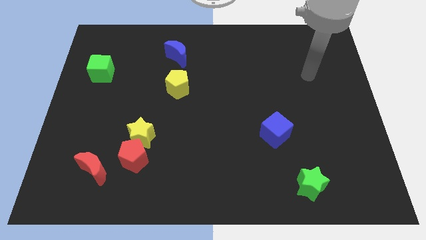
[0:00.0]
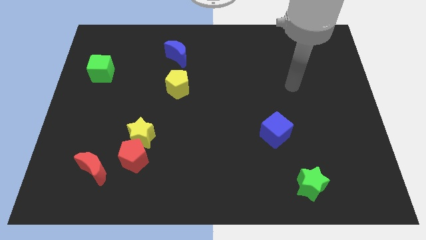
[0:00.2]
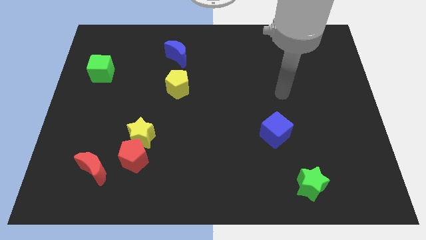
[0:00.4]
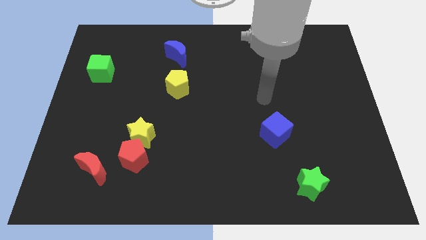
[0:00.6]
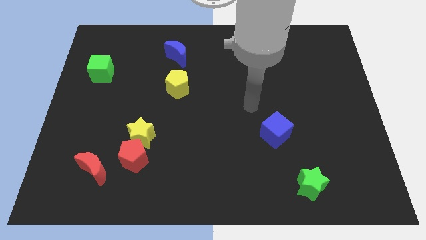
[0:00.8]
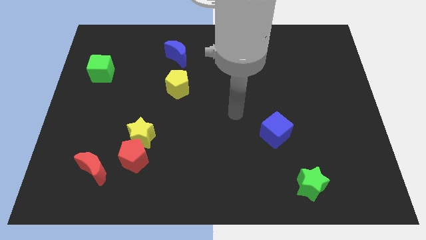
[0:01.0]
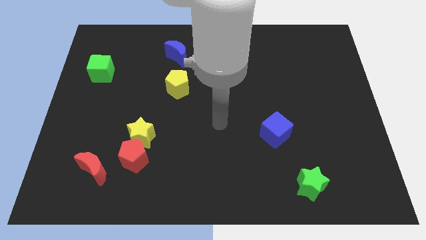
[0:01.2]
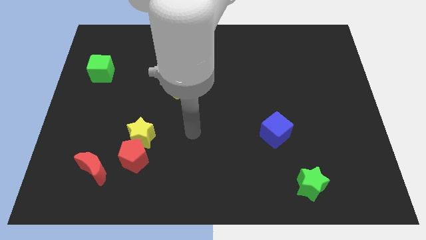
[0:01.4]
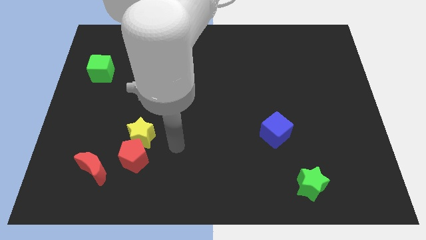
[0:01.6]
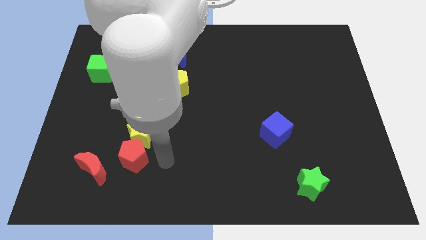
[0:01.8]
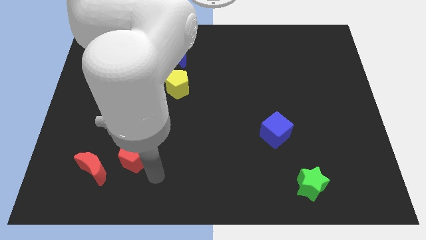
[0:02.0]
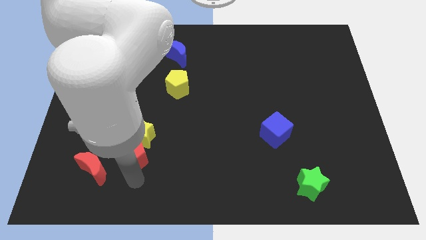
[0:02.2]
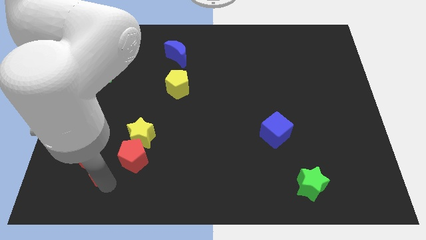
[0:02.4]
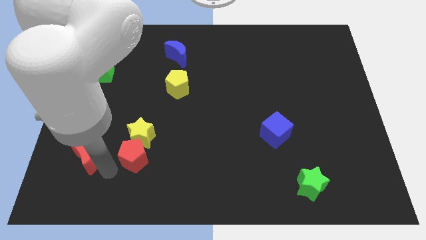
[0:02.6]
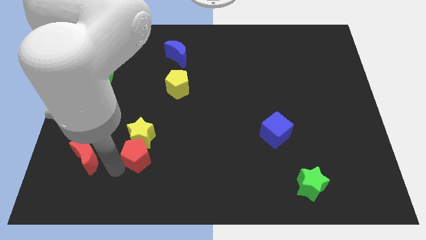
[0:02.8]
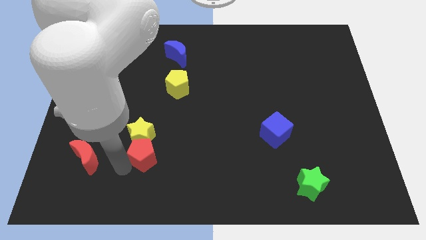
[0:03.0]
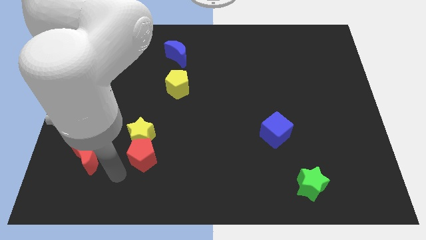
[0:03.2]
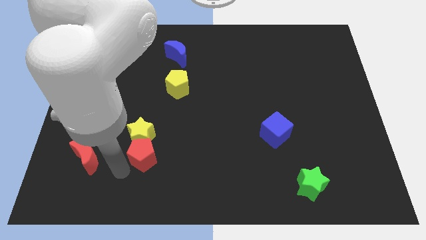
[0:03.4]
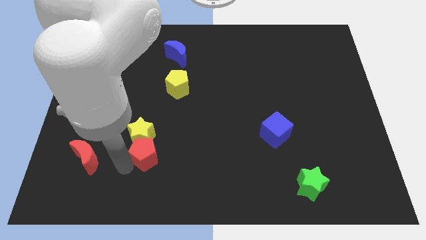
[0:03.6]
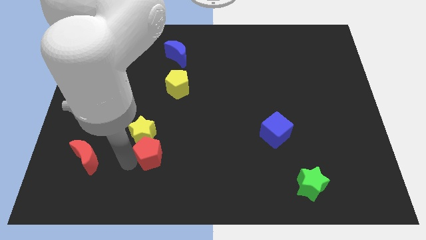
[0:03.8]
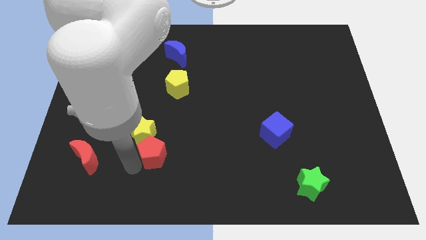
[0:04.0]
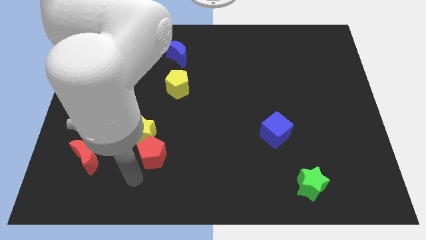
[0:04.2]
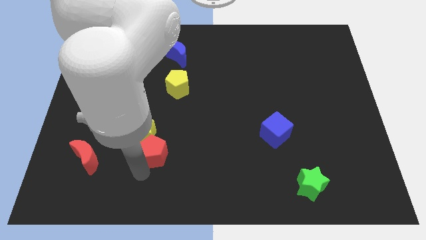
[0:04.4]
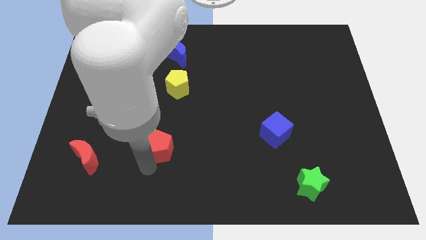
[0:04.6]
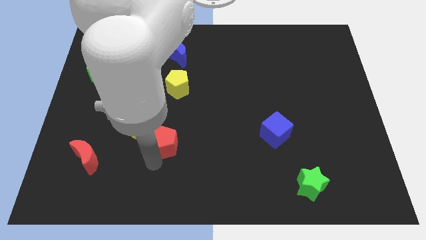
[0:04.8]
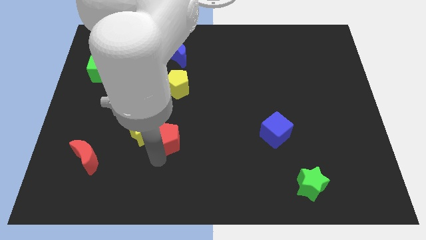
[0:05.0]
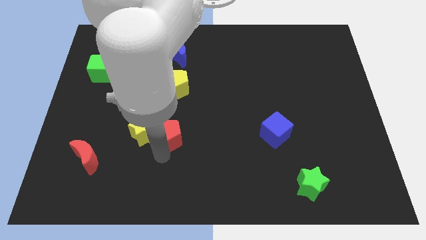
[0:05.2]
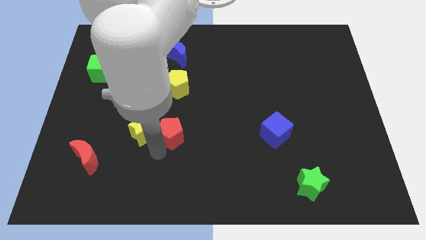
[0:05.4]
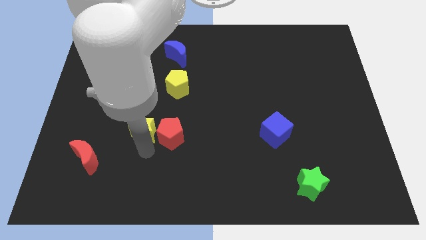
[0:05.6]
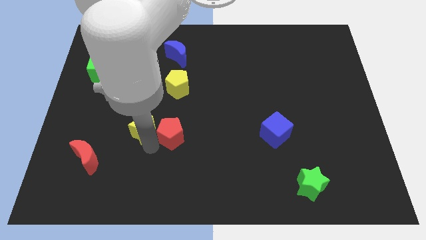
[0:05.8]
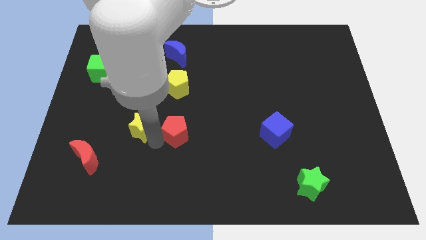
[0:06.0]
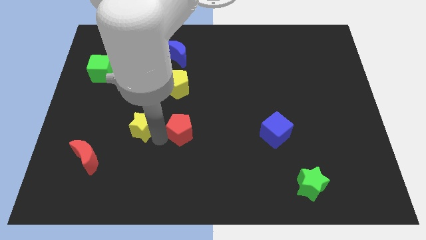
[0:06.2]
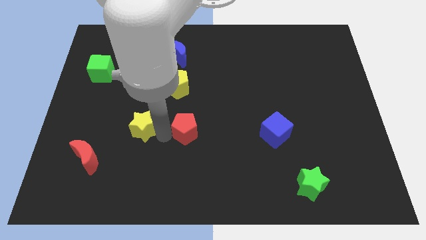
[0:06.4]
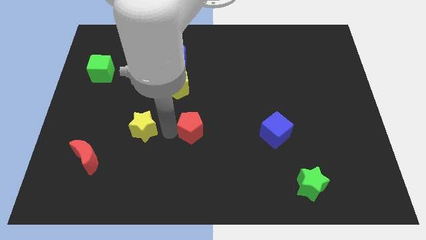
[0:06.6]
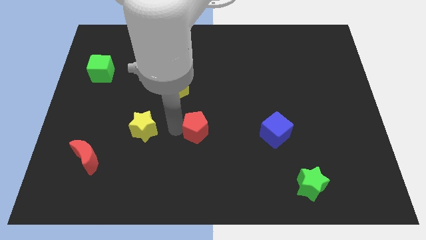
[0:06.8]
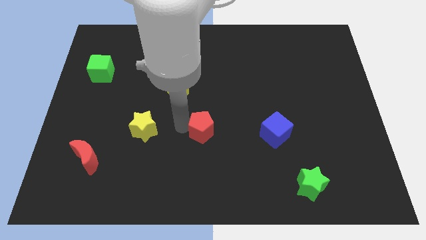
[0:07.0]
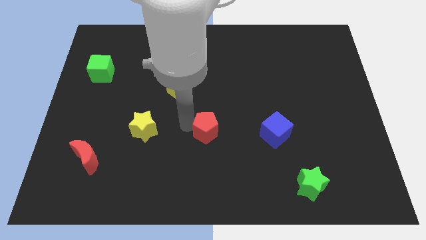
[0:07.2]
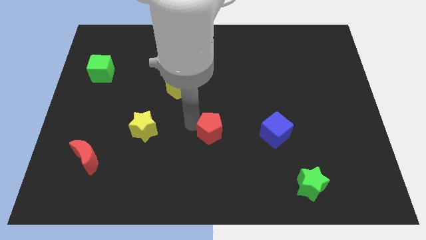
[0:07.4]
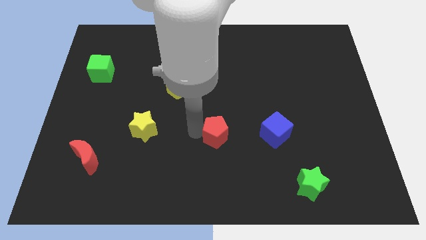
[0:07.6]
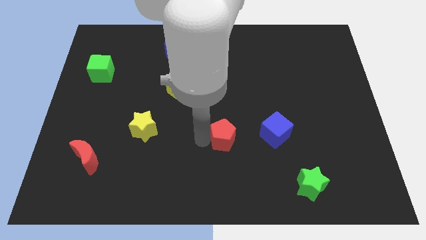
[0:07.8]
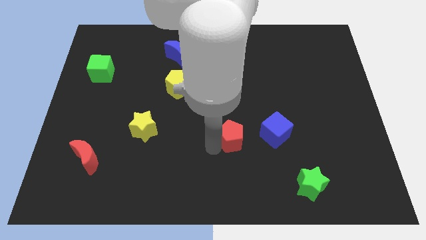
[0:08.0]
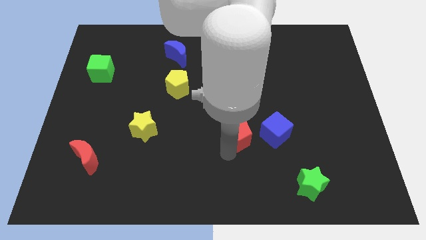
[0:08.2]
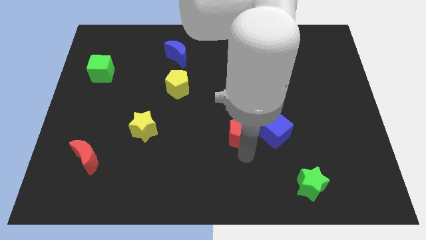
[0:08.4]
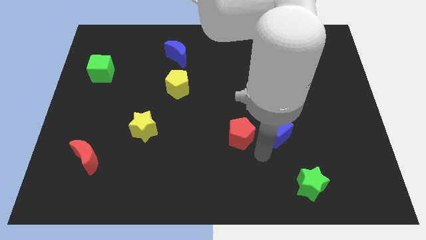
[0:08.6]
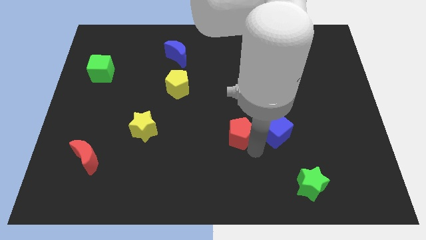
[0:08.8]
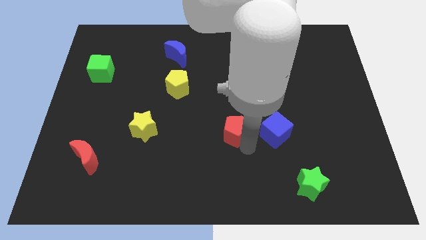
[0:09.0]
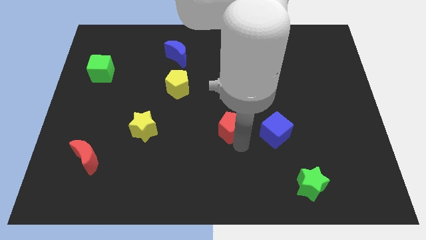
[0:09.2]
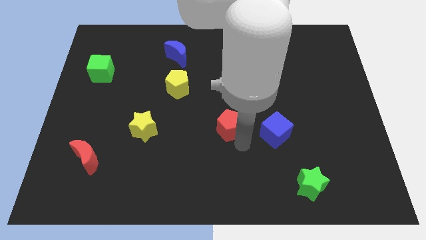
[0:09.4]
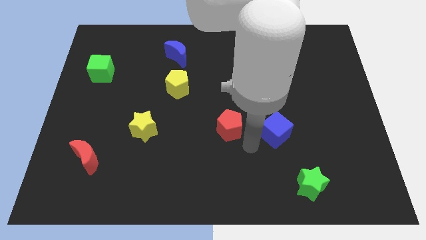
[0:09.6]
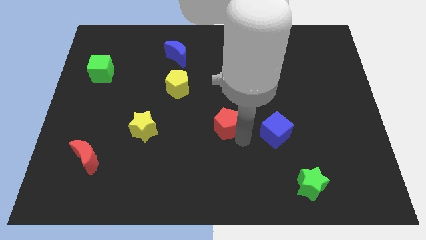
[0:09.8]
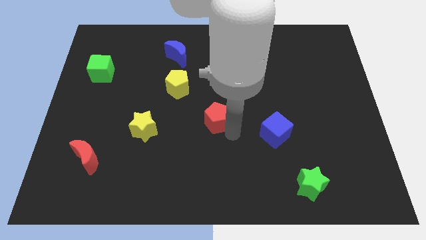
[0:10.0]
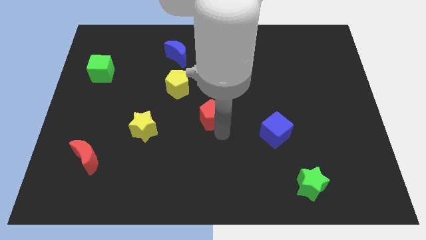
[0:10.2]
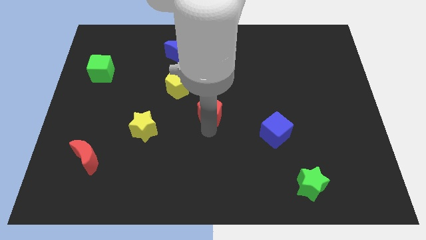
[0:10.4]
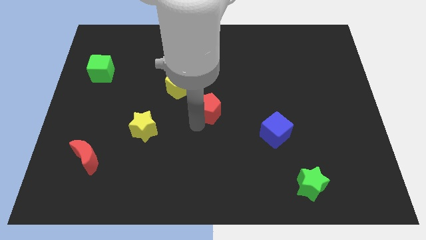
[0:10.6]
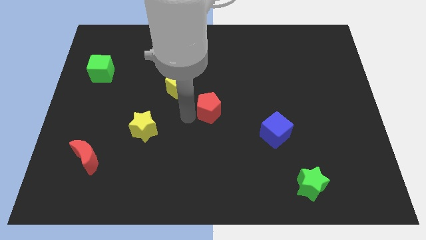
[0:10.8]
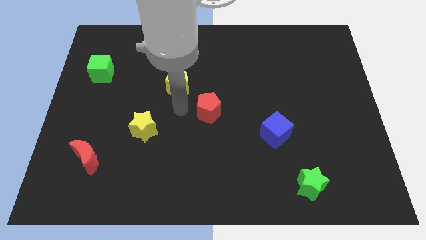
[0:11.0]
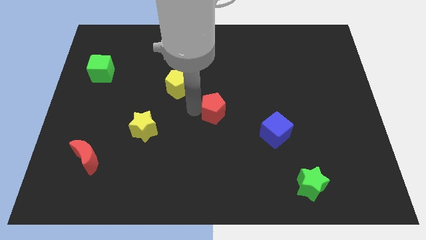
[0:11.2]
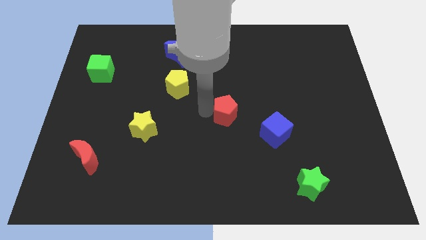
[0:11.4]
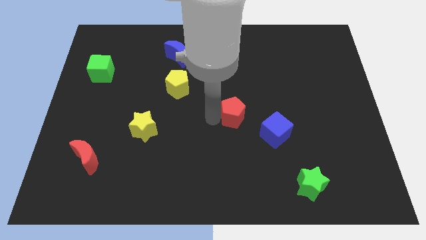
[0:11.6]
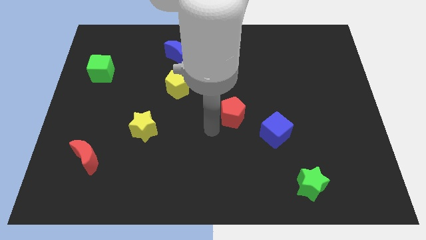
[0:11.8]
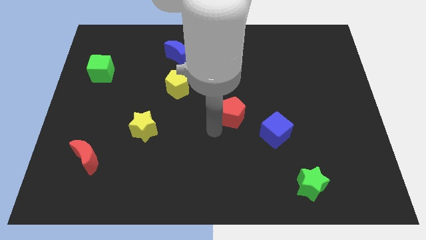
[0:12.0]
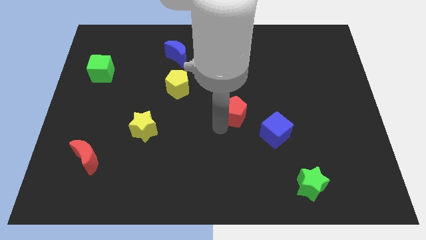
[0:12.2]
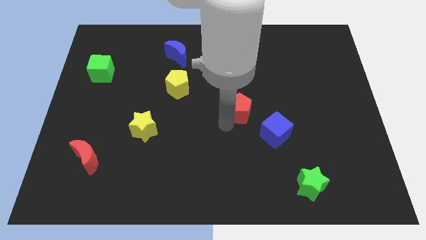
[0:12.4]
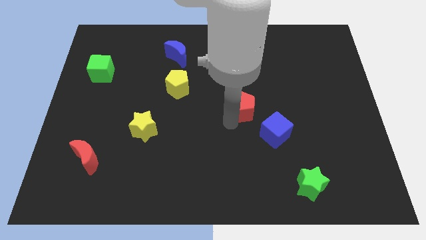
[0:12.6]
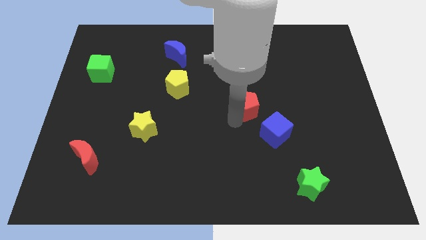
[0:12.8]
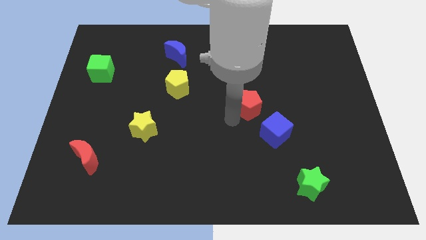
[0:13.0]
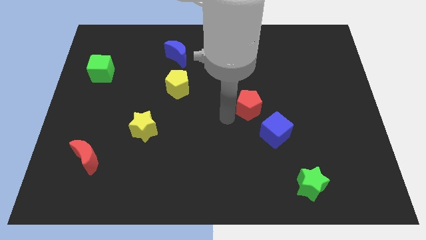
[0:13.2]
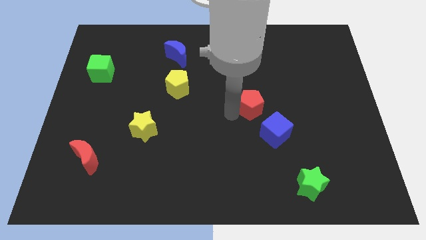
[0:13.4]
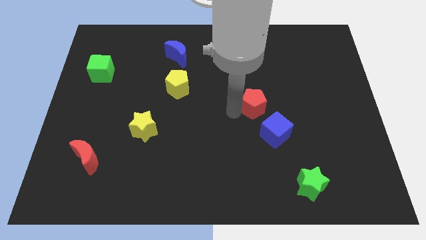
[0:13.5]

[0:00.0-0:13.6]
put the red pentagon to the top side of the blue cube
